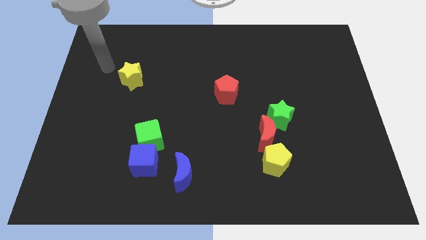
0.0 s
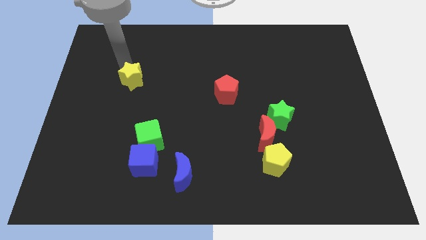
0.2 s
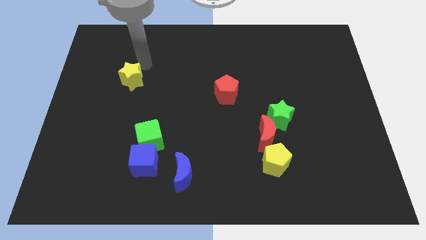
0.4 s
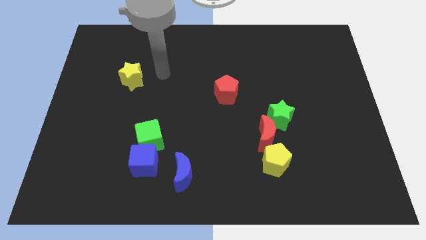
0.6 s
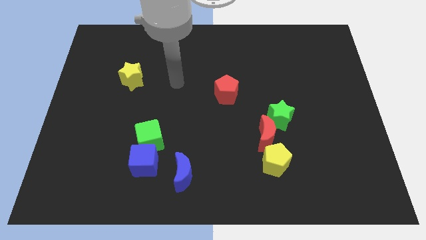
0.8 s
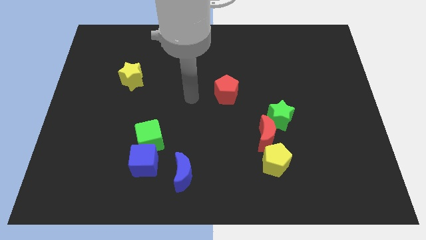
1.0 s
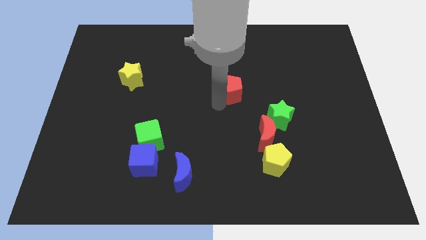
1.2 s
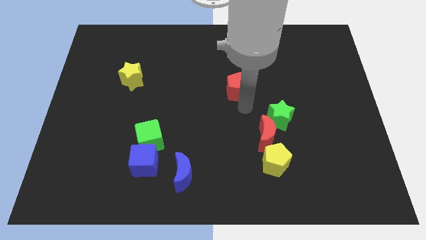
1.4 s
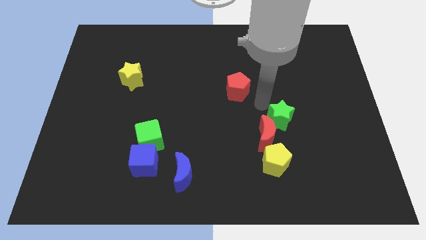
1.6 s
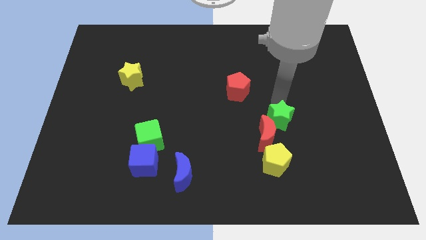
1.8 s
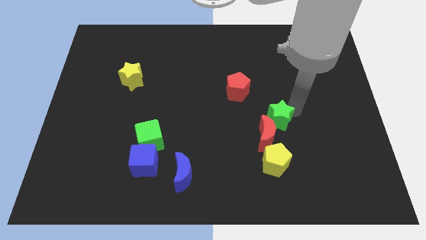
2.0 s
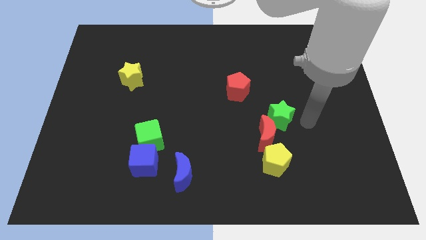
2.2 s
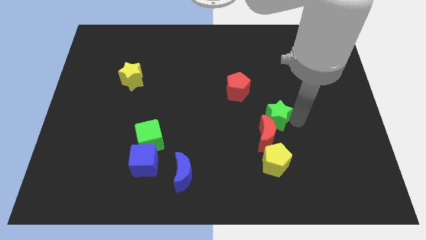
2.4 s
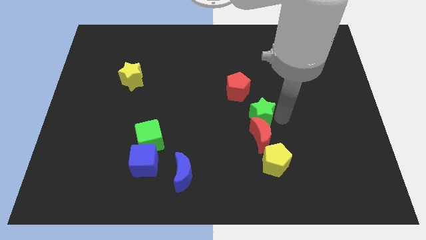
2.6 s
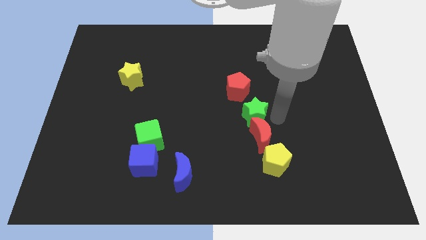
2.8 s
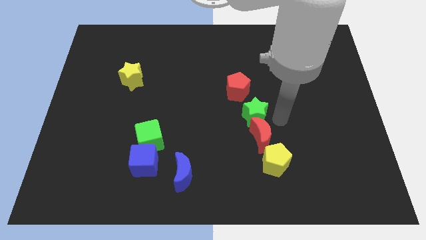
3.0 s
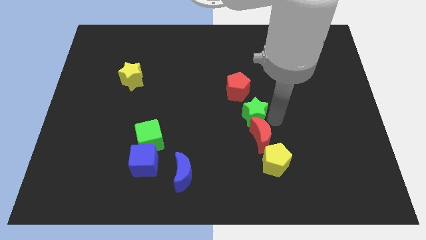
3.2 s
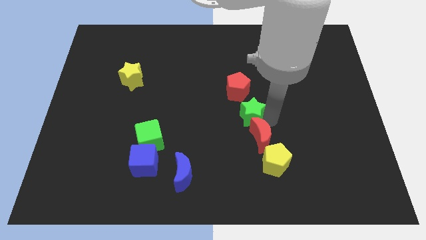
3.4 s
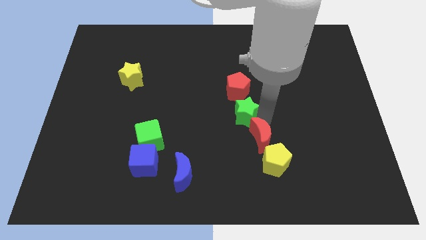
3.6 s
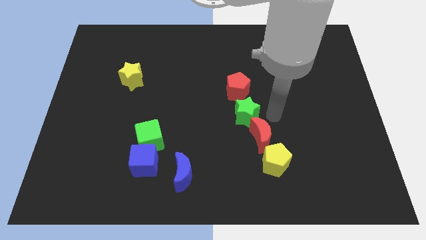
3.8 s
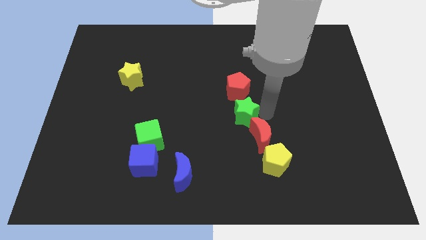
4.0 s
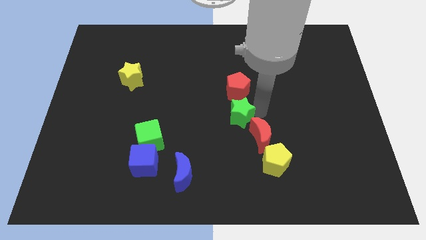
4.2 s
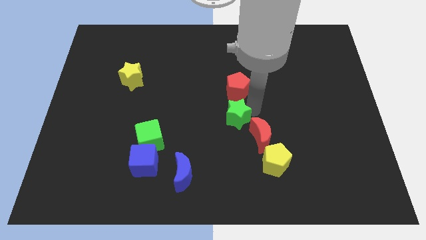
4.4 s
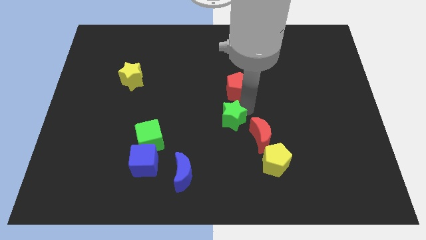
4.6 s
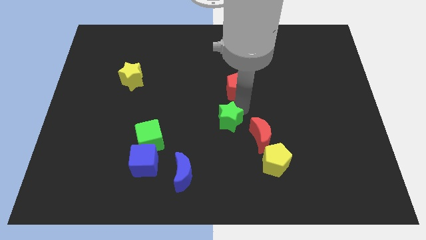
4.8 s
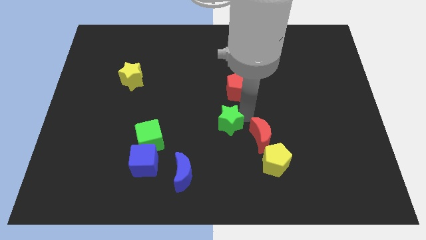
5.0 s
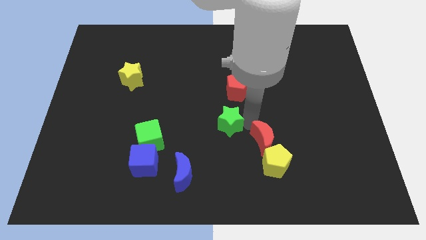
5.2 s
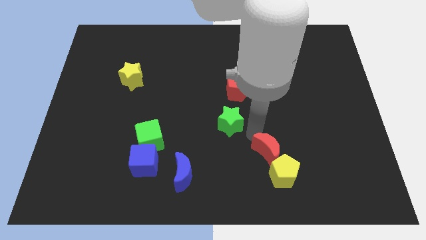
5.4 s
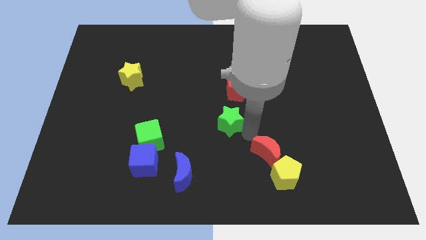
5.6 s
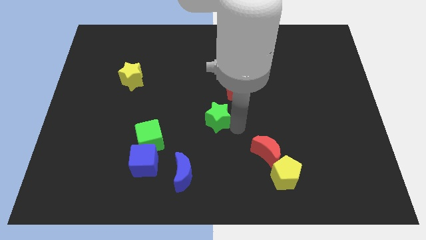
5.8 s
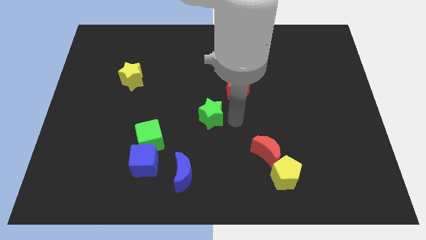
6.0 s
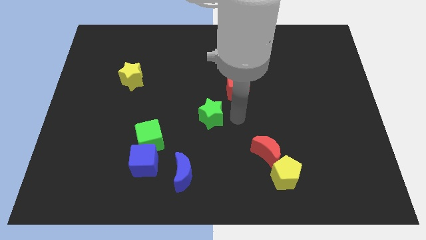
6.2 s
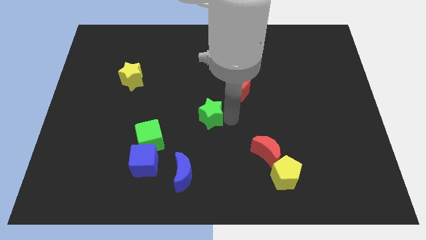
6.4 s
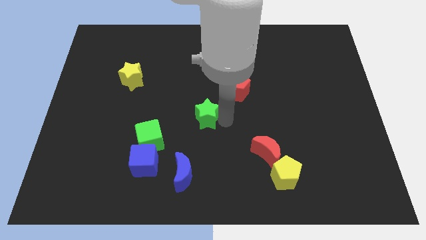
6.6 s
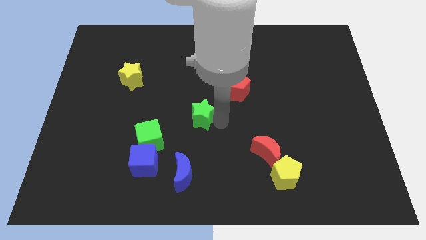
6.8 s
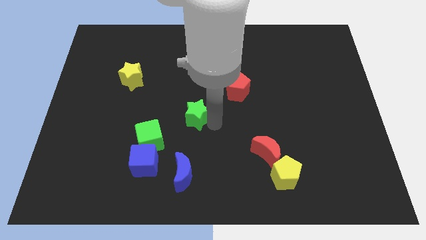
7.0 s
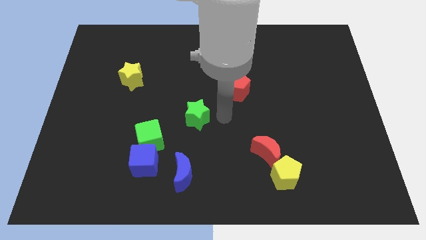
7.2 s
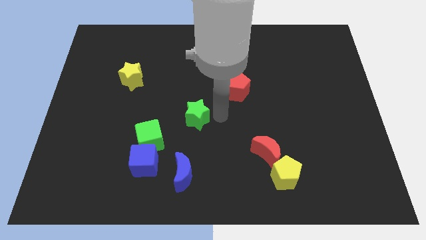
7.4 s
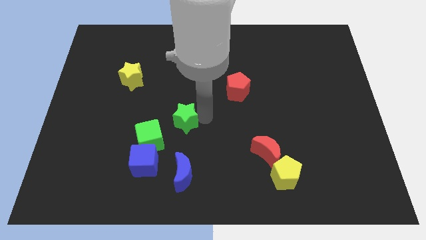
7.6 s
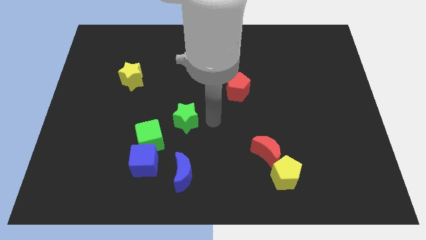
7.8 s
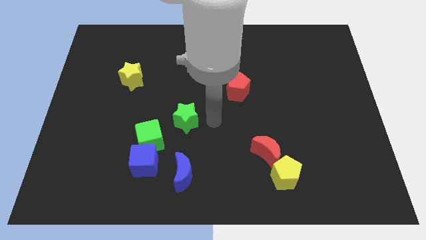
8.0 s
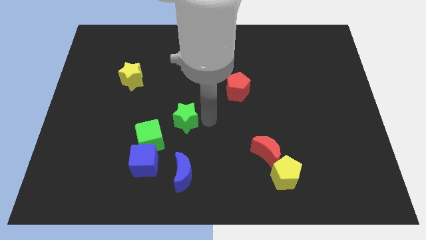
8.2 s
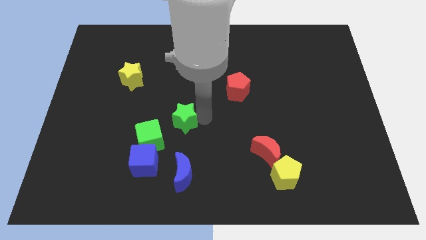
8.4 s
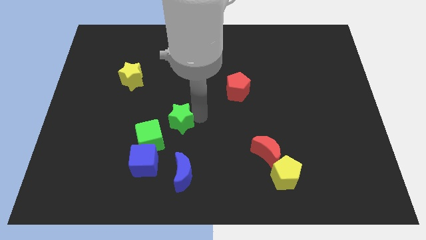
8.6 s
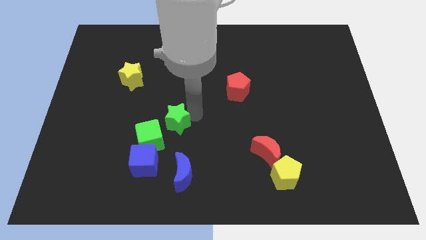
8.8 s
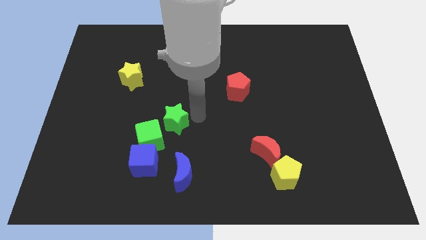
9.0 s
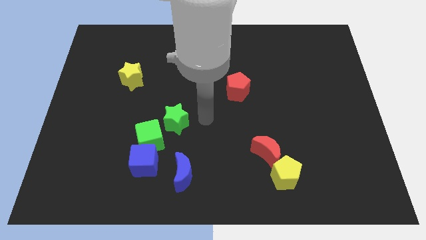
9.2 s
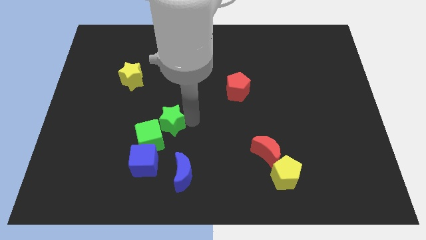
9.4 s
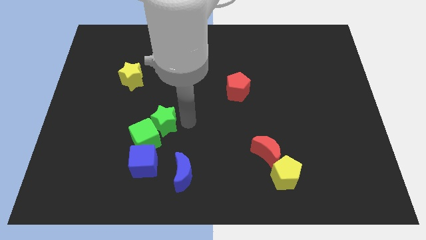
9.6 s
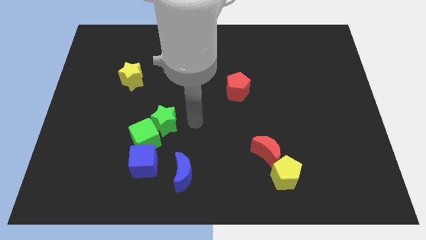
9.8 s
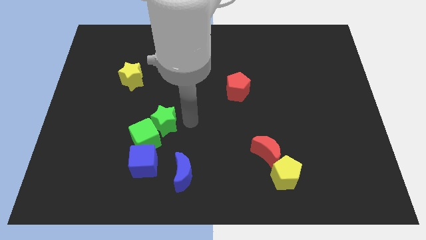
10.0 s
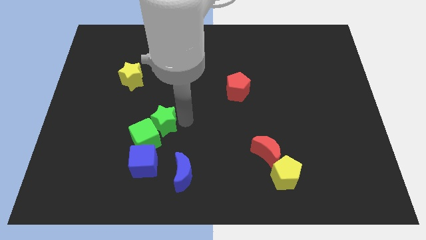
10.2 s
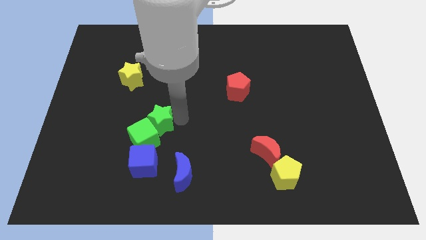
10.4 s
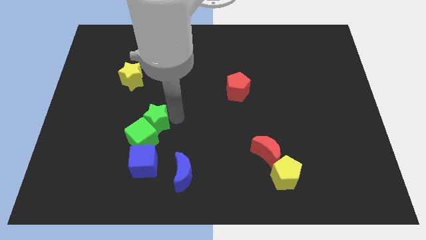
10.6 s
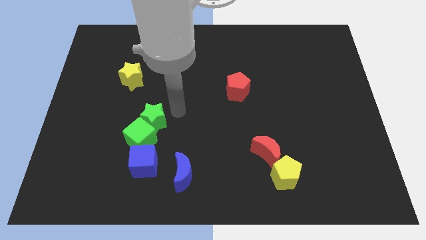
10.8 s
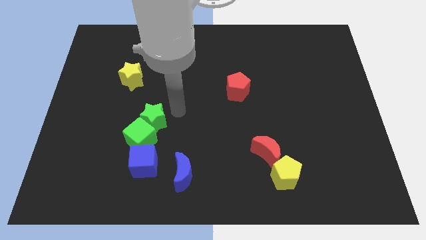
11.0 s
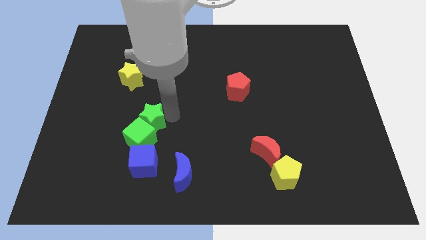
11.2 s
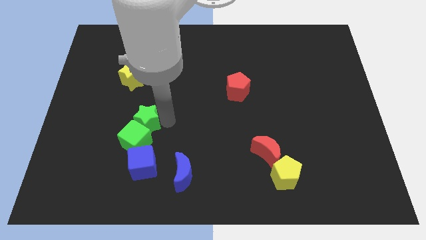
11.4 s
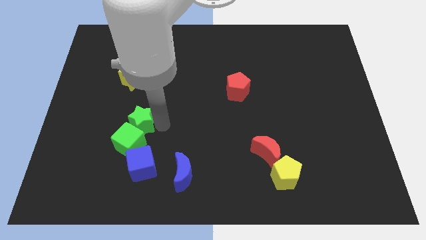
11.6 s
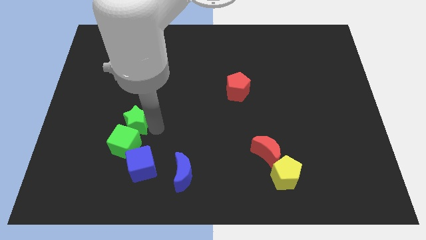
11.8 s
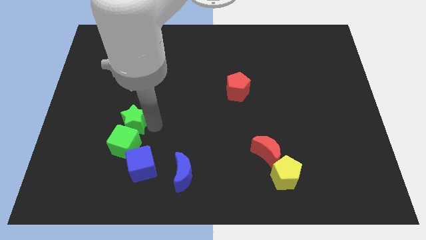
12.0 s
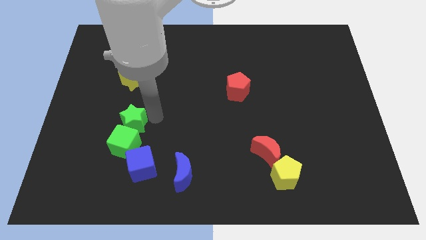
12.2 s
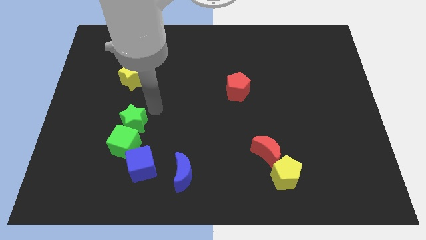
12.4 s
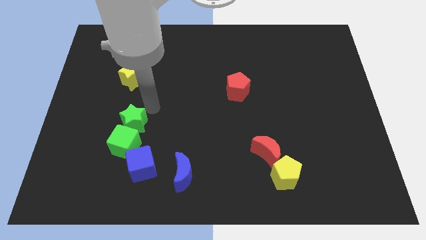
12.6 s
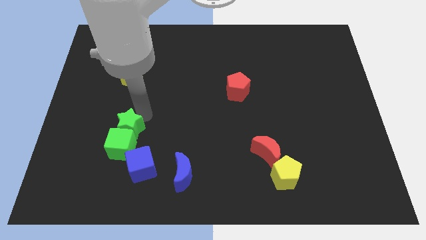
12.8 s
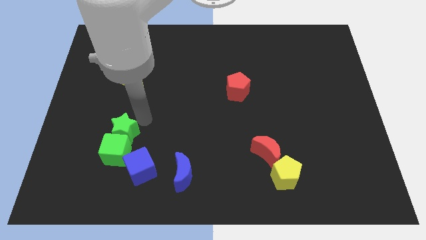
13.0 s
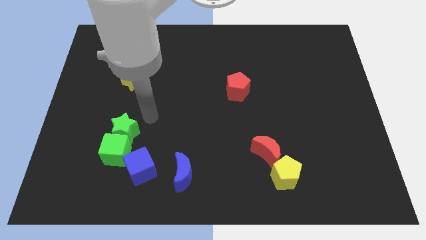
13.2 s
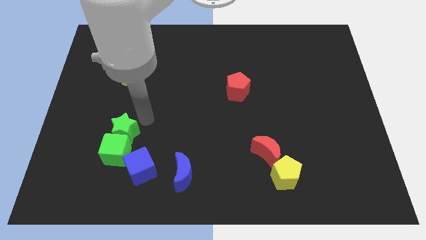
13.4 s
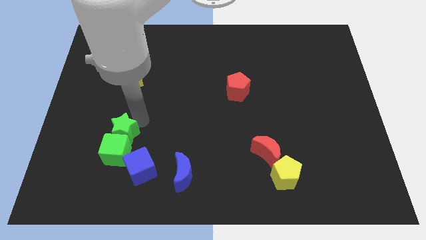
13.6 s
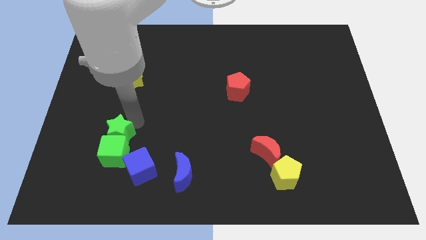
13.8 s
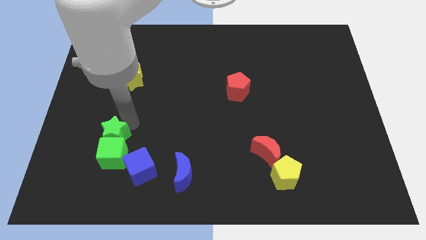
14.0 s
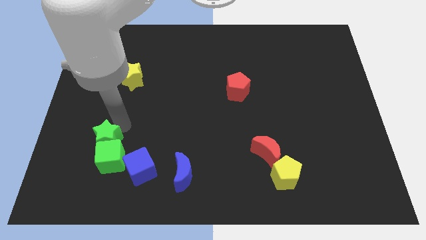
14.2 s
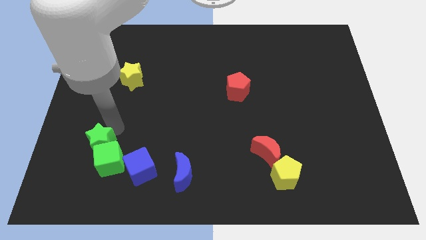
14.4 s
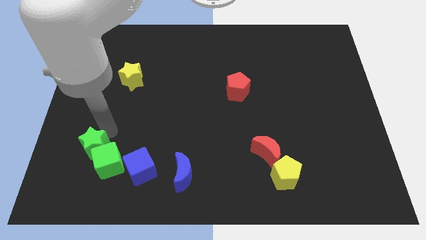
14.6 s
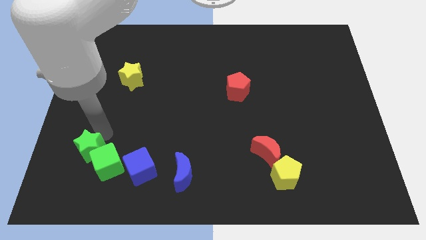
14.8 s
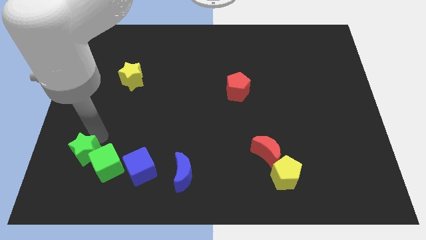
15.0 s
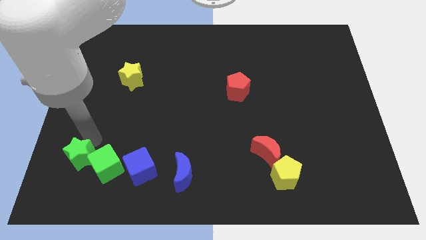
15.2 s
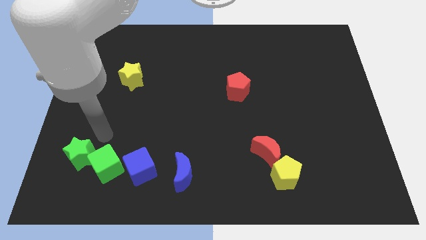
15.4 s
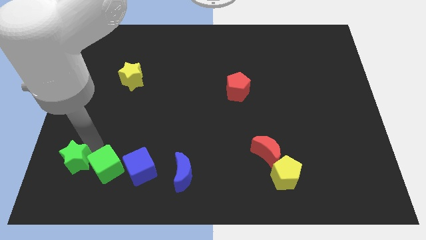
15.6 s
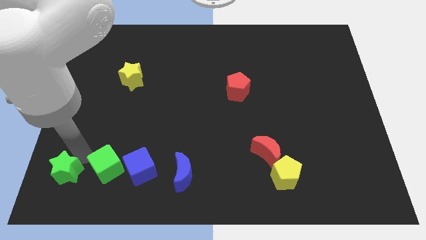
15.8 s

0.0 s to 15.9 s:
push the green star to the bottom left

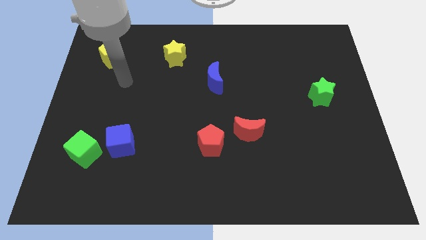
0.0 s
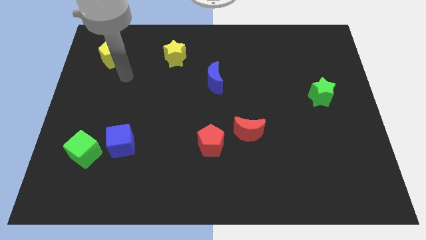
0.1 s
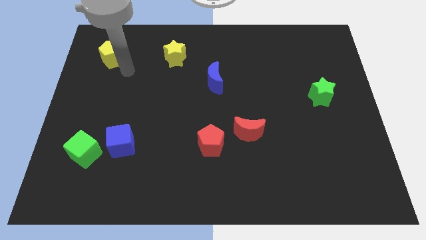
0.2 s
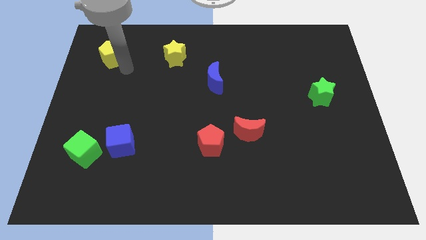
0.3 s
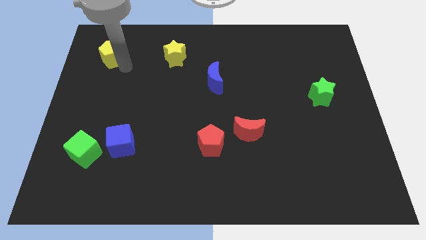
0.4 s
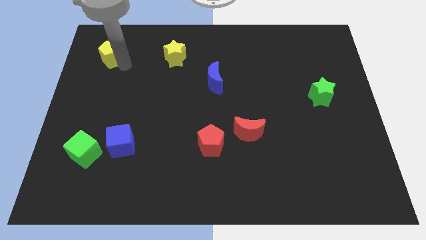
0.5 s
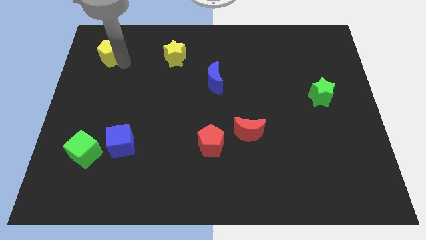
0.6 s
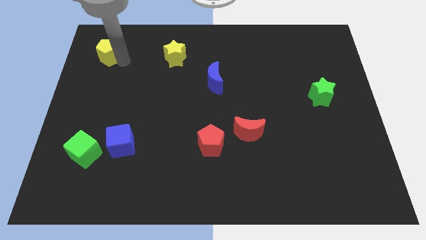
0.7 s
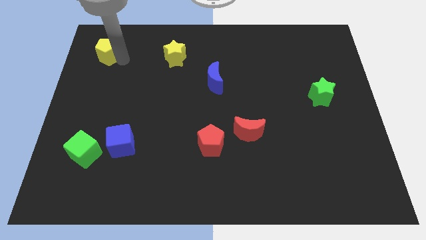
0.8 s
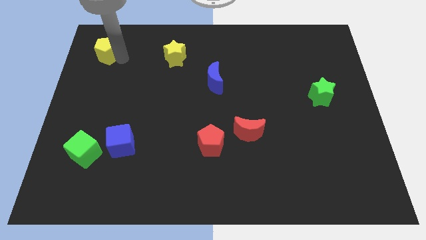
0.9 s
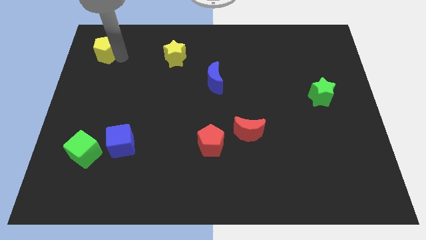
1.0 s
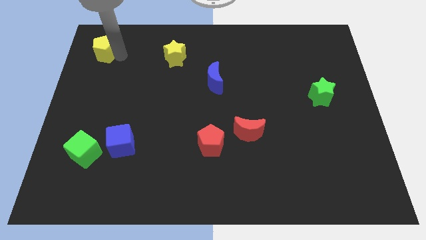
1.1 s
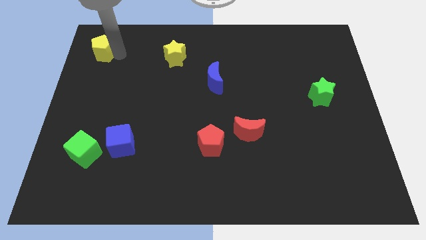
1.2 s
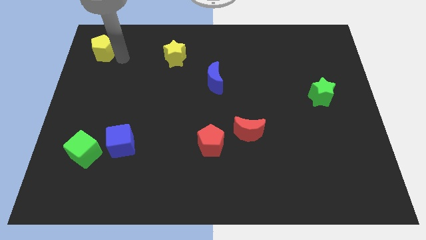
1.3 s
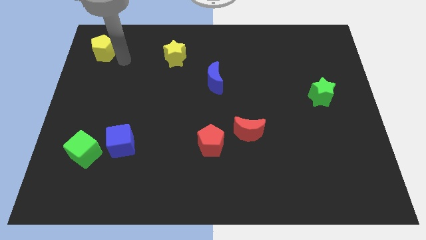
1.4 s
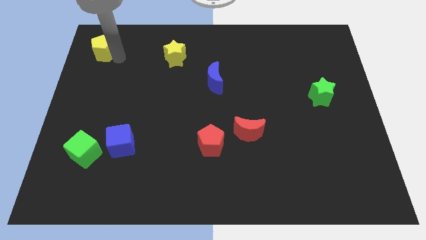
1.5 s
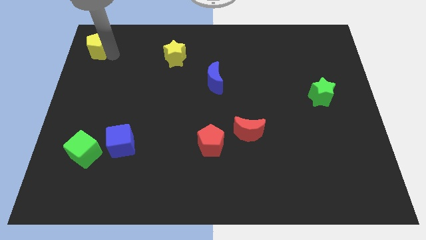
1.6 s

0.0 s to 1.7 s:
push the yellow pentagon to the top left corner
